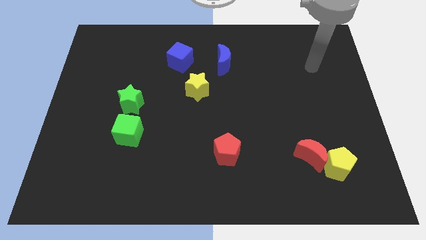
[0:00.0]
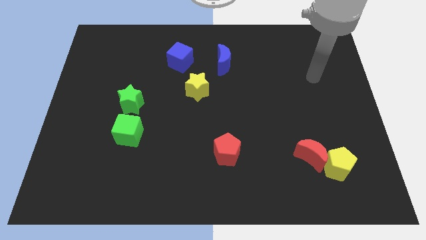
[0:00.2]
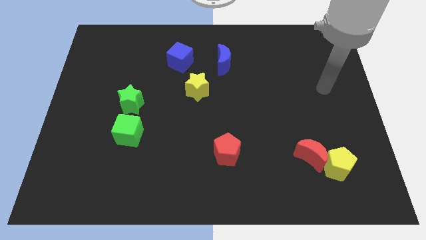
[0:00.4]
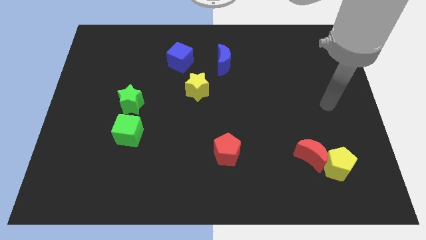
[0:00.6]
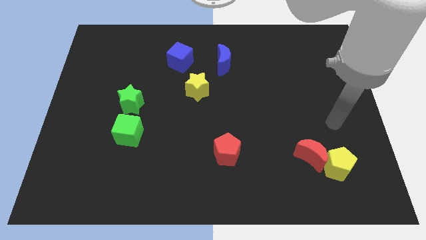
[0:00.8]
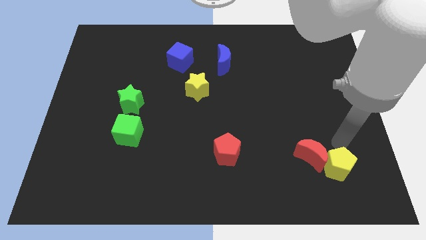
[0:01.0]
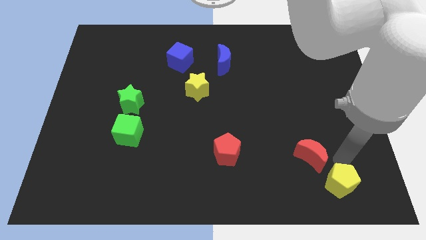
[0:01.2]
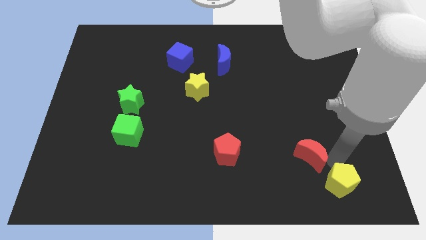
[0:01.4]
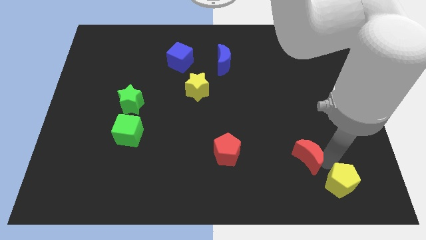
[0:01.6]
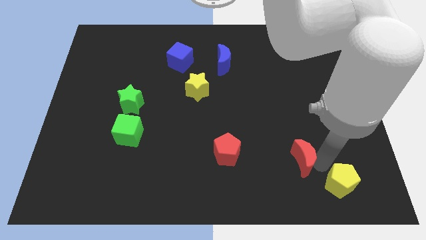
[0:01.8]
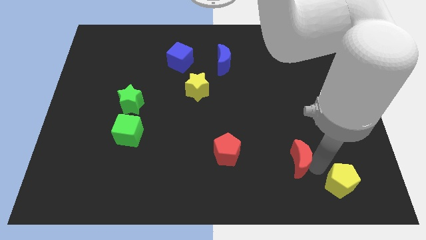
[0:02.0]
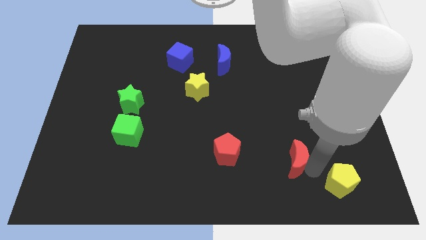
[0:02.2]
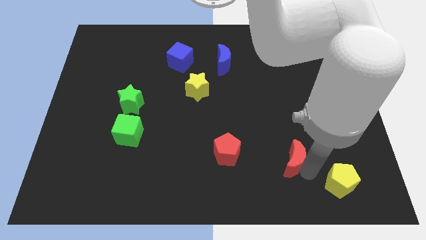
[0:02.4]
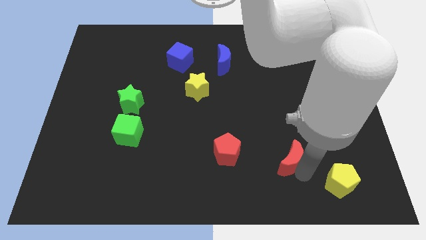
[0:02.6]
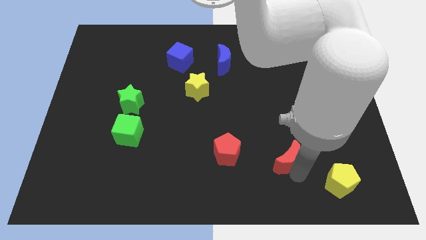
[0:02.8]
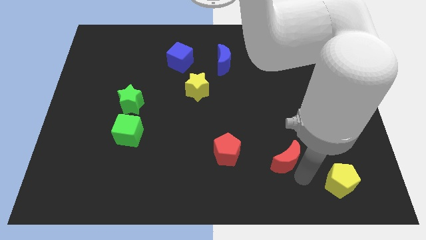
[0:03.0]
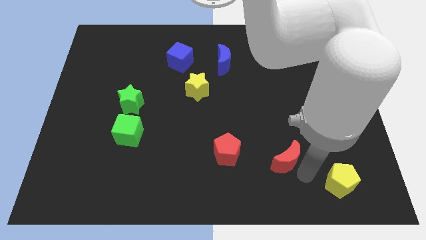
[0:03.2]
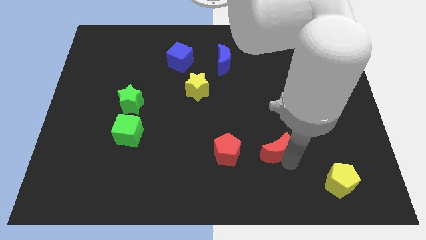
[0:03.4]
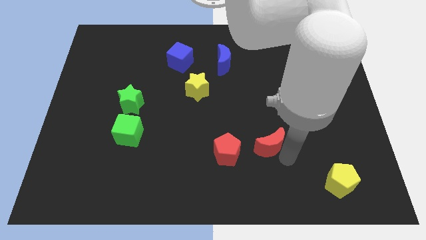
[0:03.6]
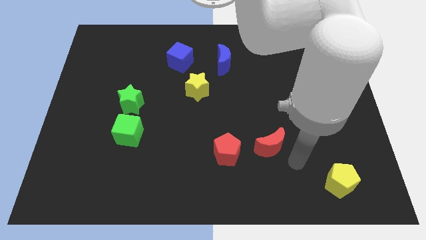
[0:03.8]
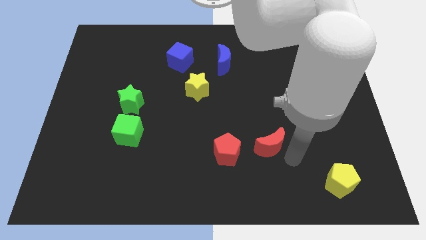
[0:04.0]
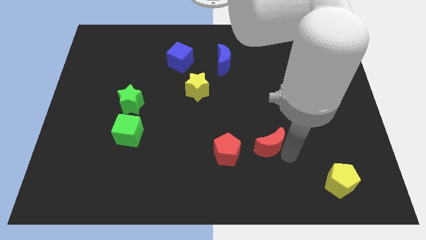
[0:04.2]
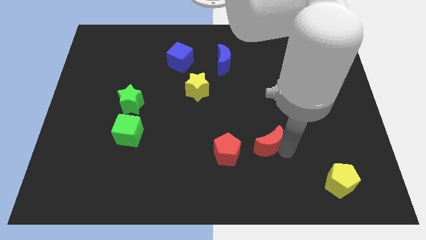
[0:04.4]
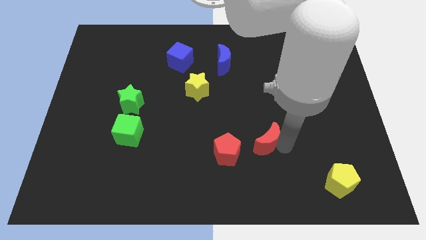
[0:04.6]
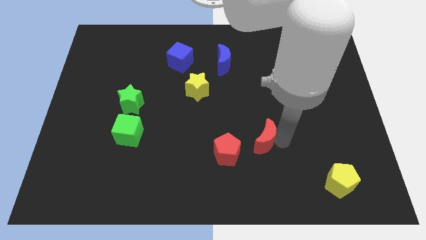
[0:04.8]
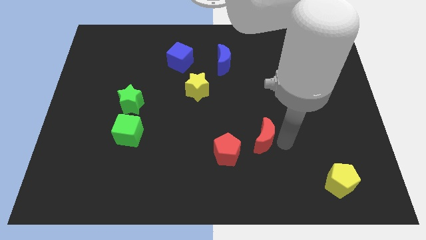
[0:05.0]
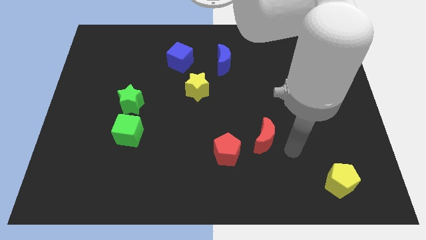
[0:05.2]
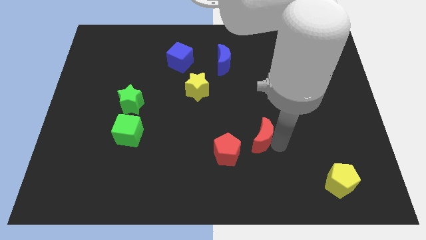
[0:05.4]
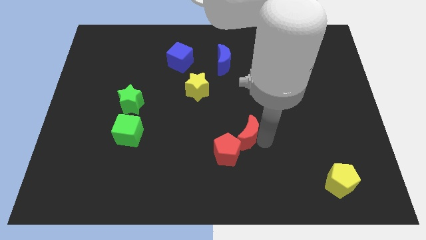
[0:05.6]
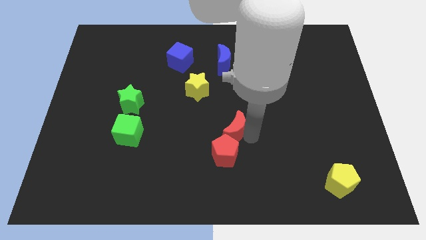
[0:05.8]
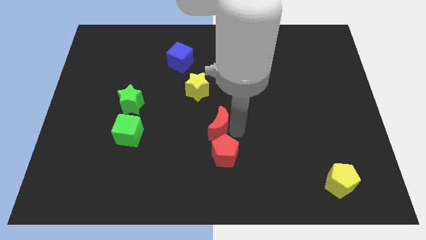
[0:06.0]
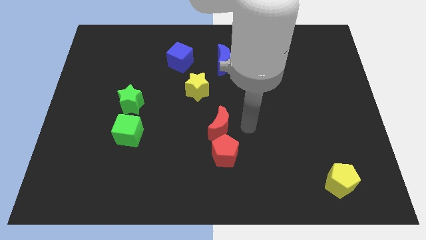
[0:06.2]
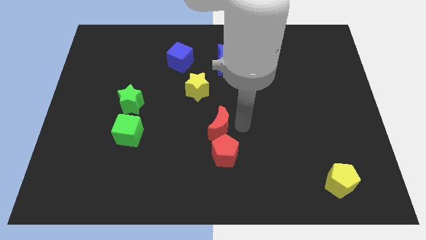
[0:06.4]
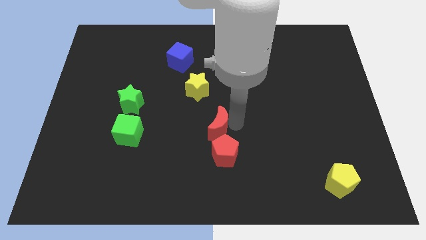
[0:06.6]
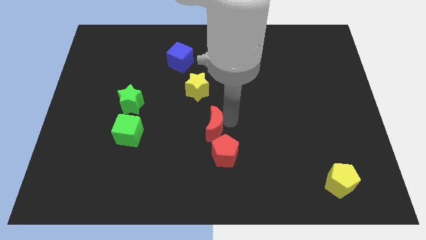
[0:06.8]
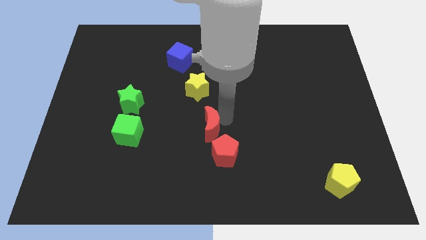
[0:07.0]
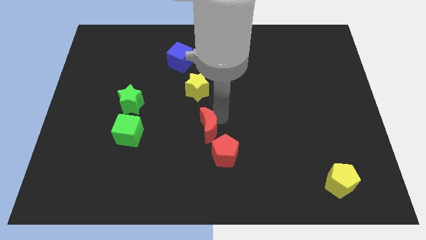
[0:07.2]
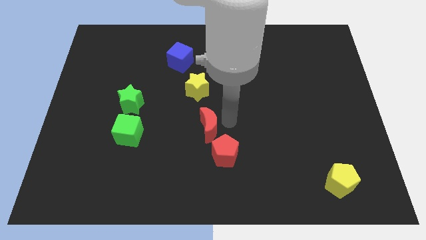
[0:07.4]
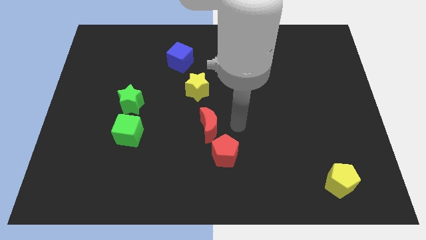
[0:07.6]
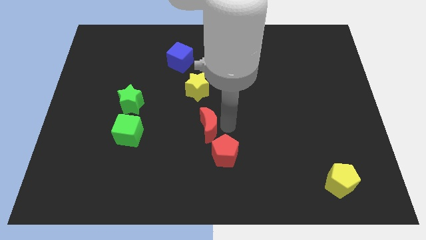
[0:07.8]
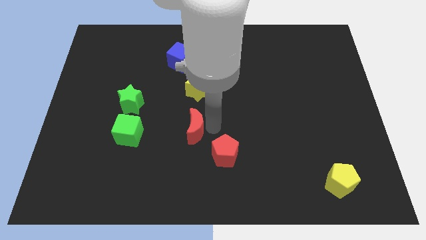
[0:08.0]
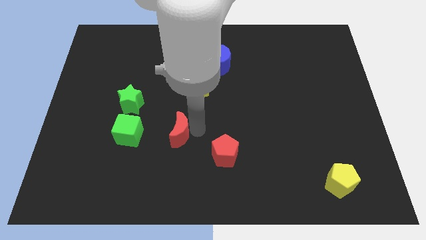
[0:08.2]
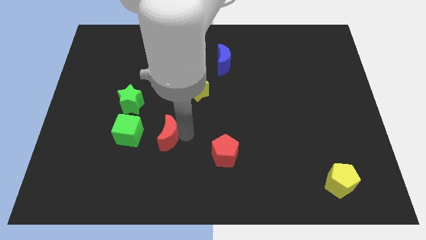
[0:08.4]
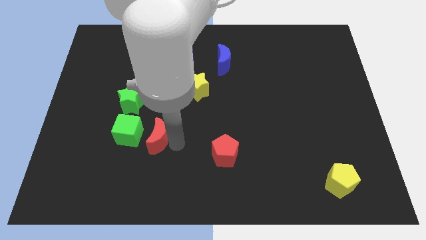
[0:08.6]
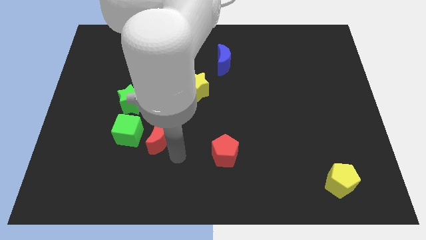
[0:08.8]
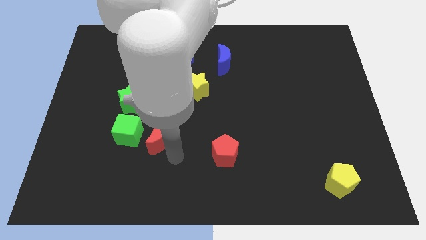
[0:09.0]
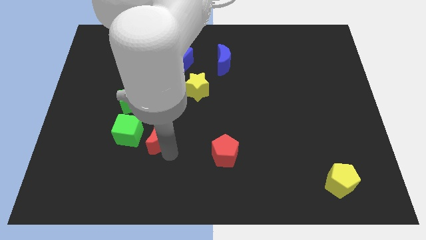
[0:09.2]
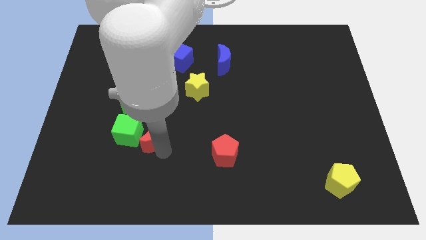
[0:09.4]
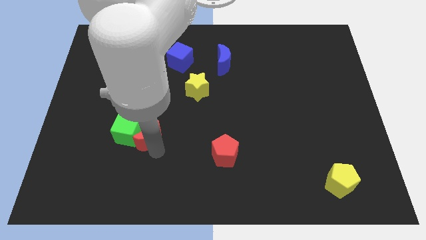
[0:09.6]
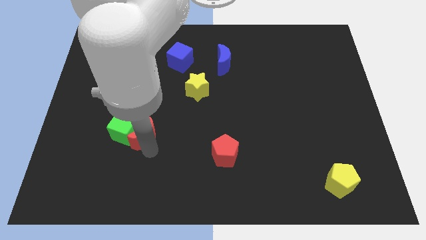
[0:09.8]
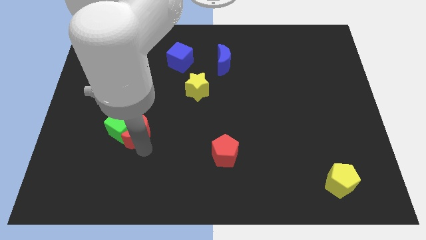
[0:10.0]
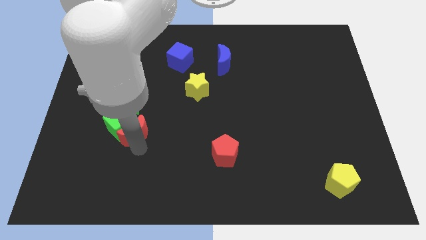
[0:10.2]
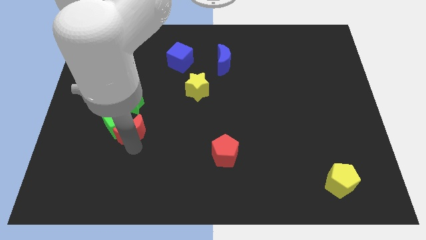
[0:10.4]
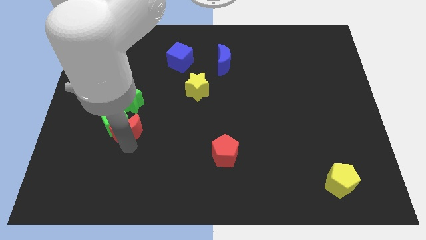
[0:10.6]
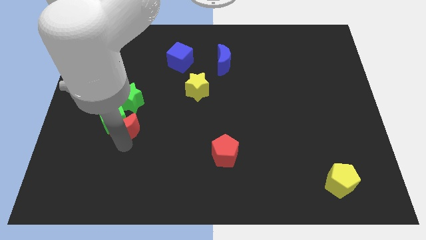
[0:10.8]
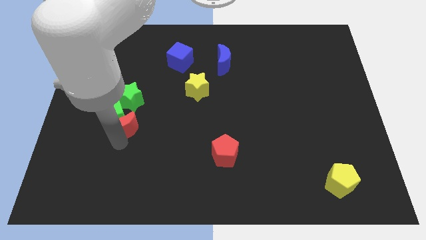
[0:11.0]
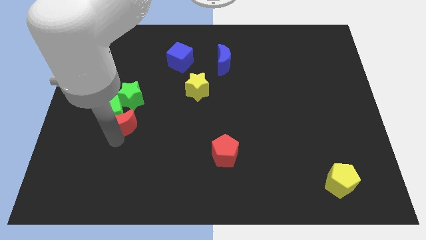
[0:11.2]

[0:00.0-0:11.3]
put the red moon to the bottom left side of the green star

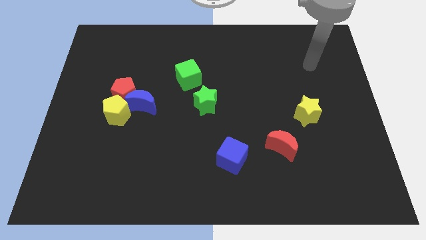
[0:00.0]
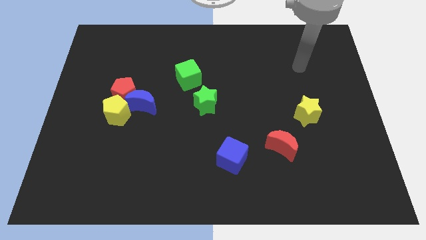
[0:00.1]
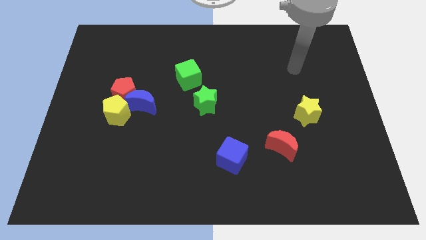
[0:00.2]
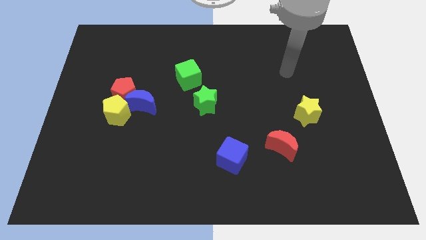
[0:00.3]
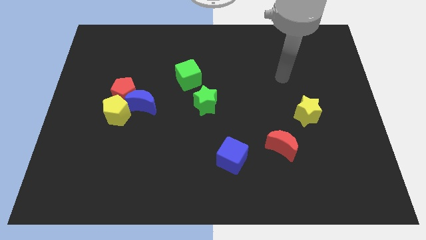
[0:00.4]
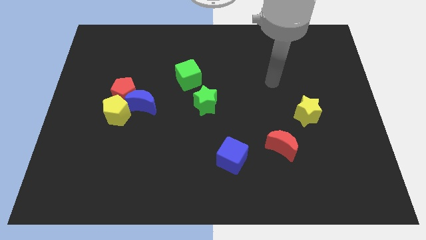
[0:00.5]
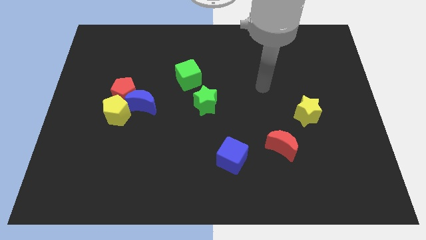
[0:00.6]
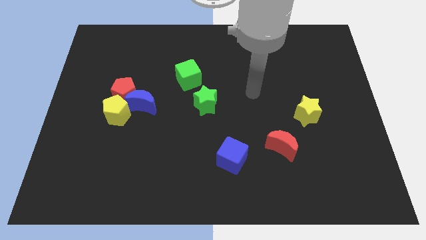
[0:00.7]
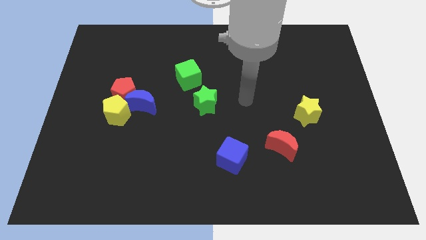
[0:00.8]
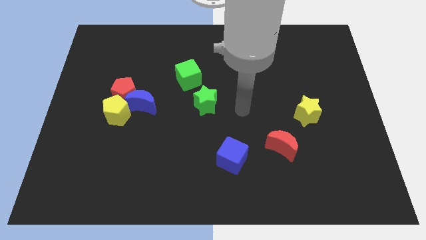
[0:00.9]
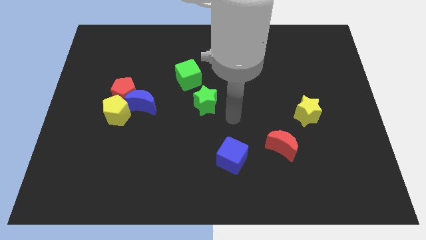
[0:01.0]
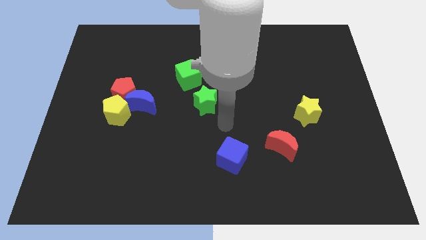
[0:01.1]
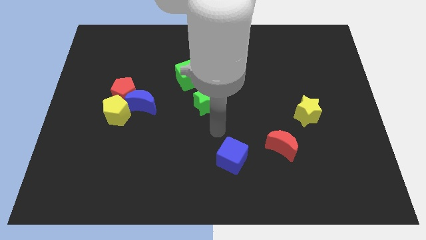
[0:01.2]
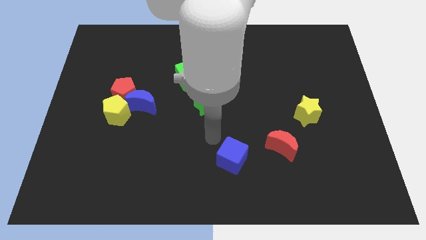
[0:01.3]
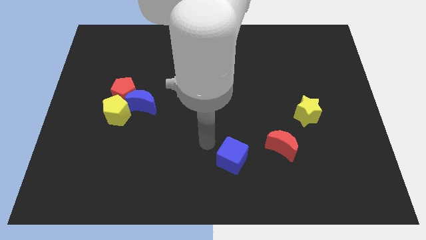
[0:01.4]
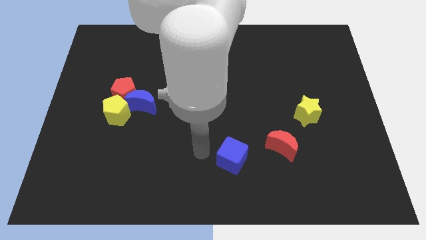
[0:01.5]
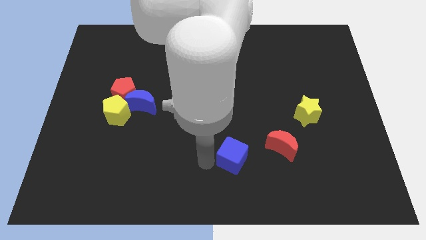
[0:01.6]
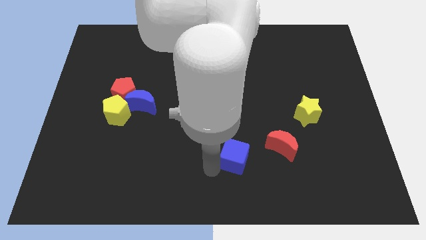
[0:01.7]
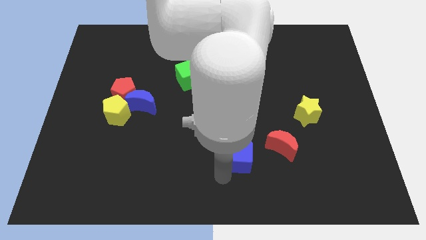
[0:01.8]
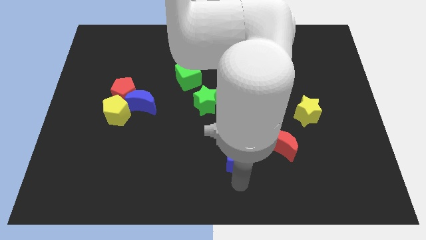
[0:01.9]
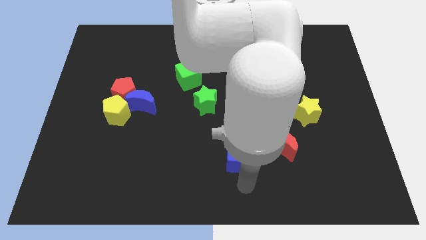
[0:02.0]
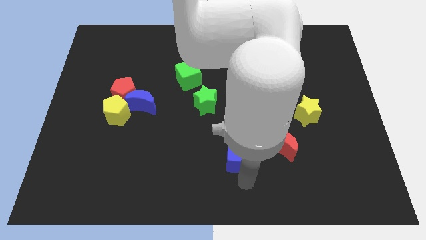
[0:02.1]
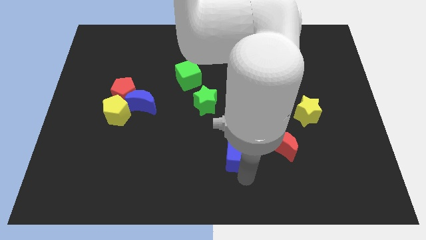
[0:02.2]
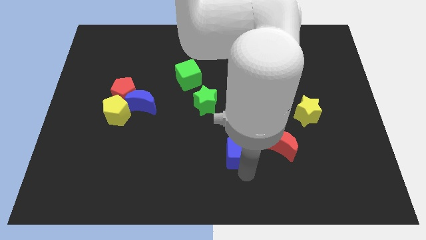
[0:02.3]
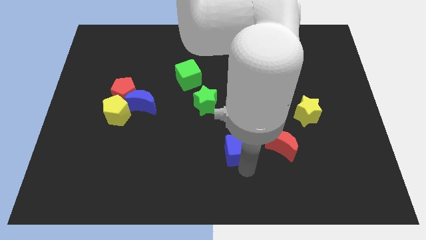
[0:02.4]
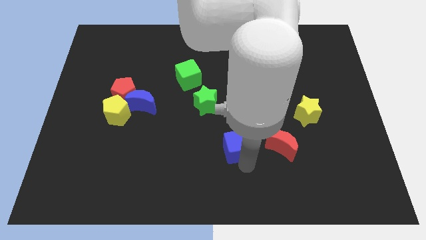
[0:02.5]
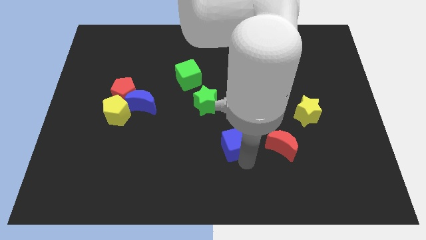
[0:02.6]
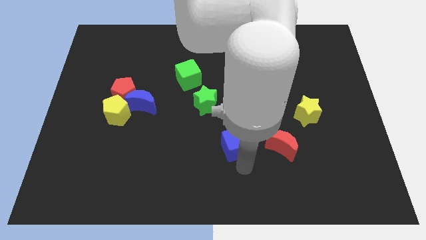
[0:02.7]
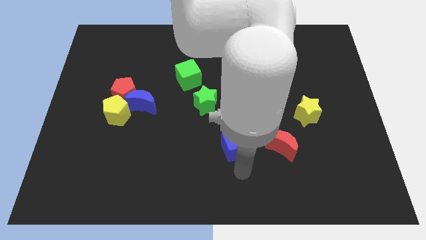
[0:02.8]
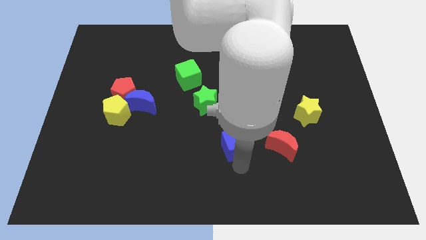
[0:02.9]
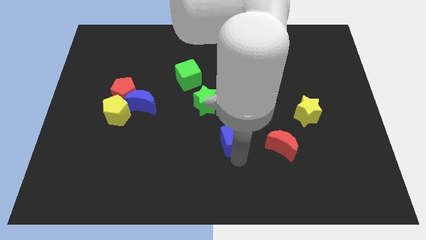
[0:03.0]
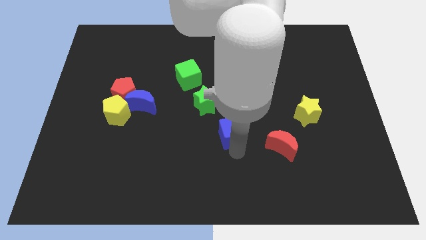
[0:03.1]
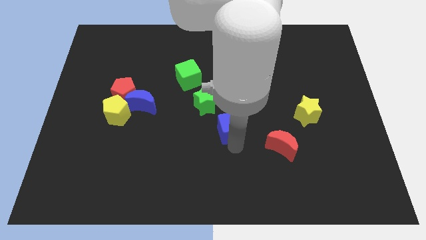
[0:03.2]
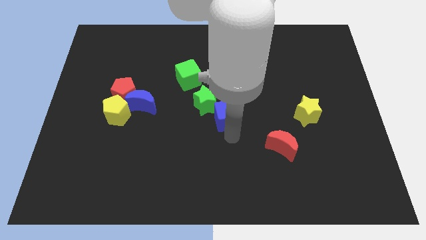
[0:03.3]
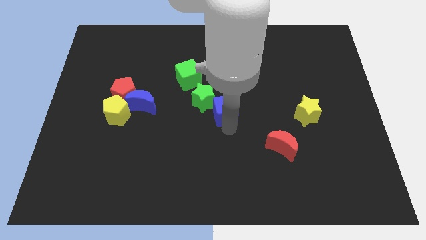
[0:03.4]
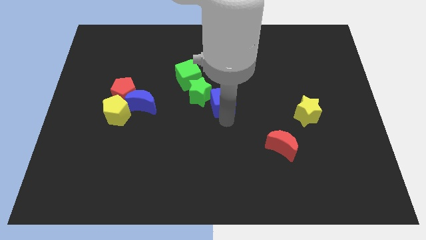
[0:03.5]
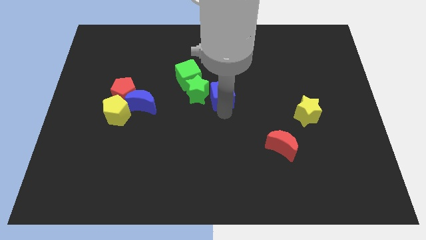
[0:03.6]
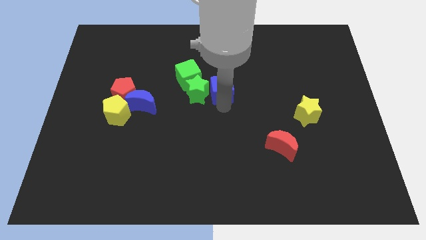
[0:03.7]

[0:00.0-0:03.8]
slide the blue cube to the top right of the green star
